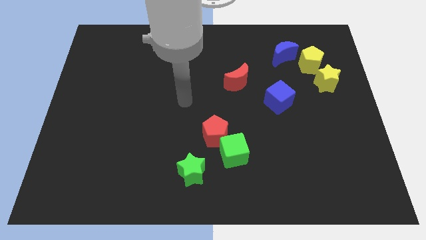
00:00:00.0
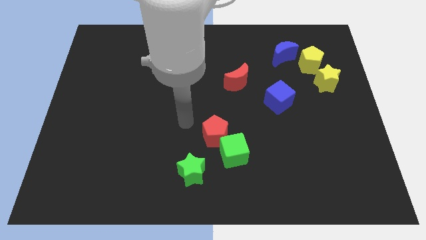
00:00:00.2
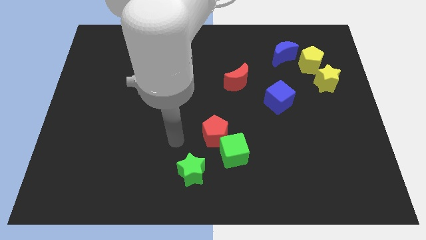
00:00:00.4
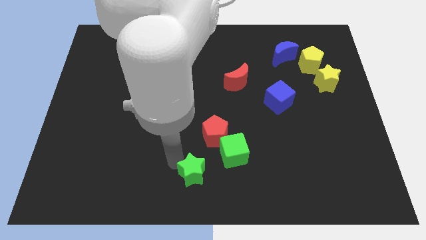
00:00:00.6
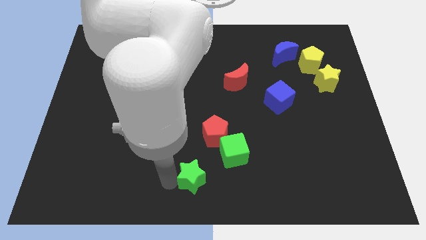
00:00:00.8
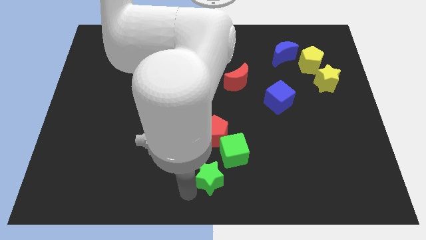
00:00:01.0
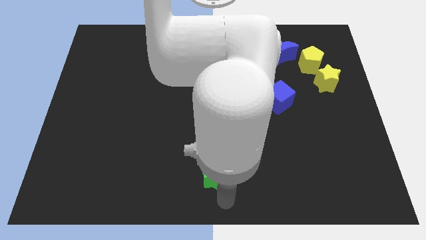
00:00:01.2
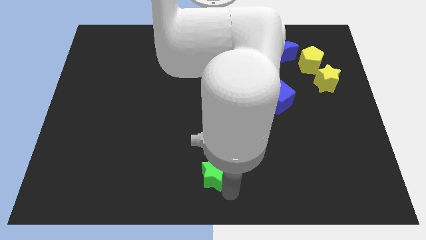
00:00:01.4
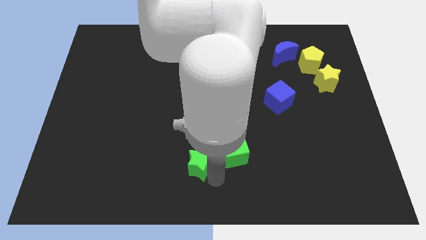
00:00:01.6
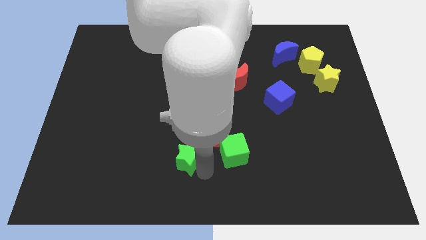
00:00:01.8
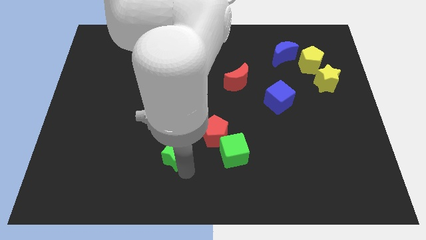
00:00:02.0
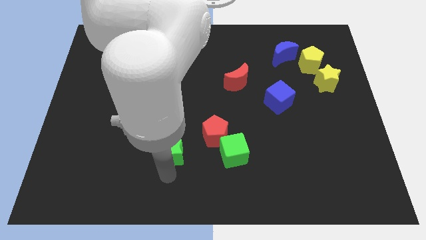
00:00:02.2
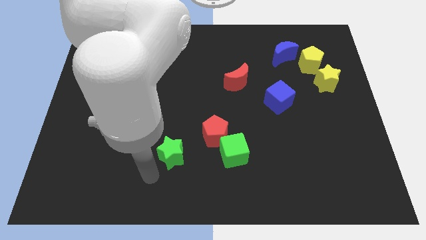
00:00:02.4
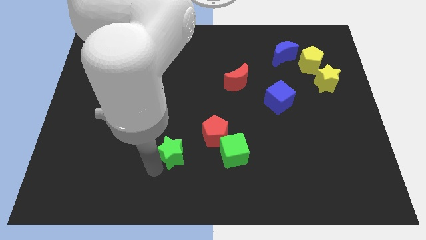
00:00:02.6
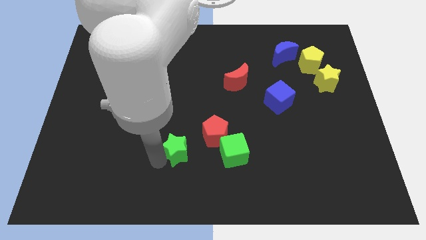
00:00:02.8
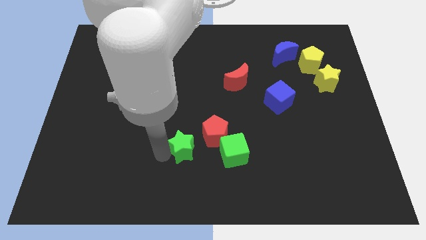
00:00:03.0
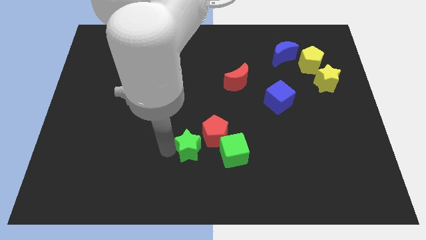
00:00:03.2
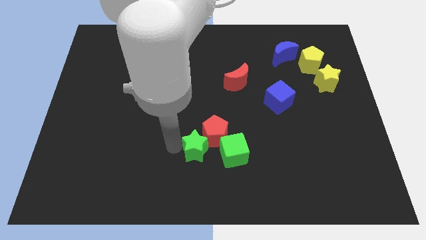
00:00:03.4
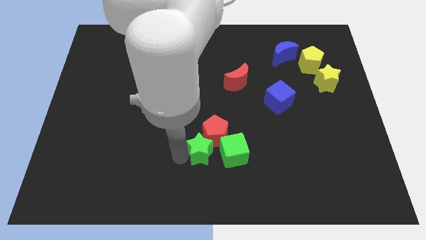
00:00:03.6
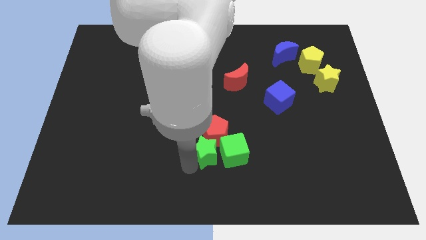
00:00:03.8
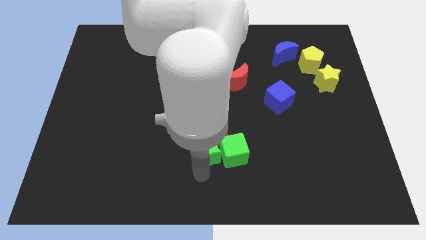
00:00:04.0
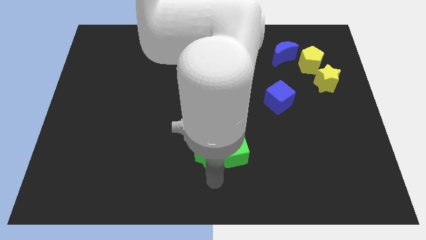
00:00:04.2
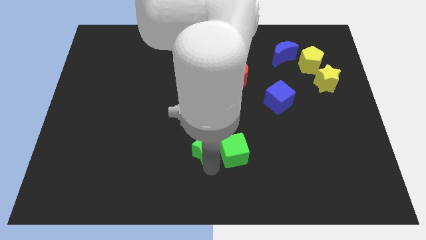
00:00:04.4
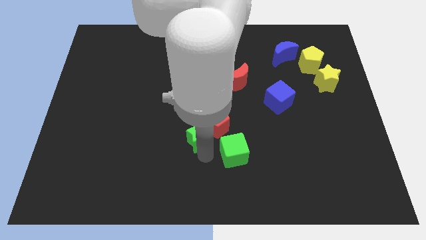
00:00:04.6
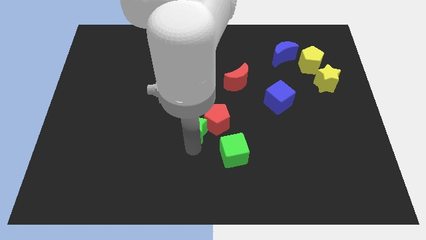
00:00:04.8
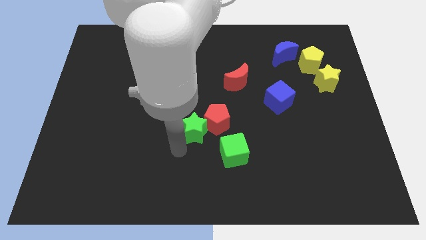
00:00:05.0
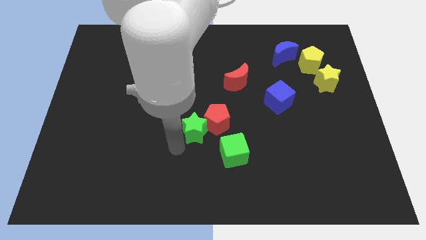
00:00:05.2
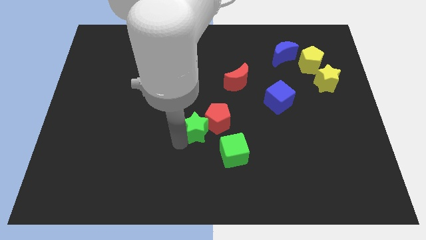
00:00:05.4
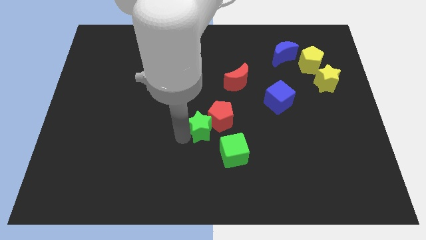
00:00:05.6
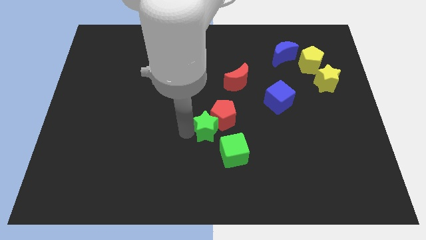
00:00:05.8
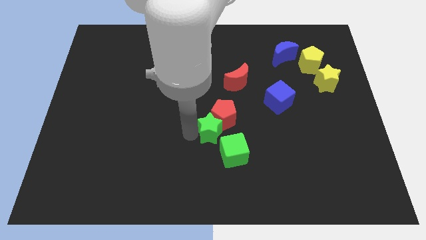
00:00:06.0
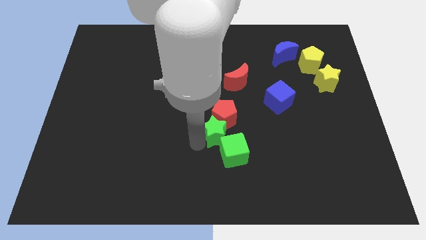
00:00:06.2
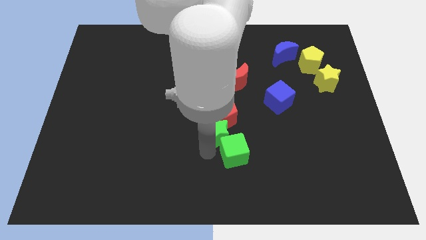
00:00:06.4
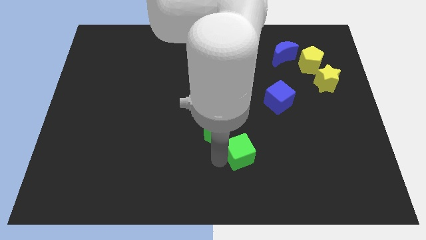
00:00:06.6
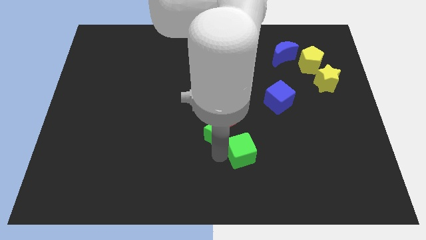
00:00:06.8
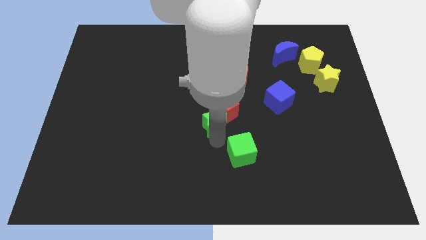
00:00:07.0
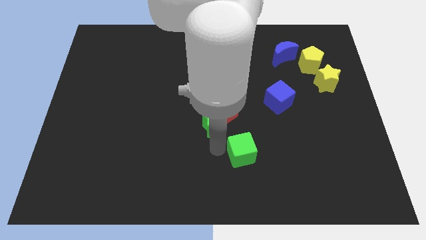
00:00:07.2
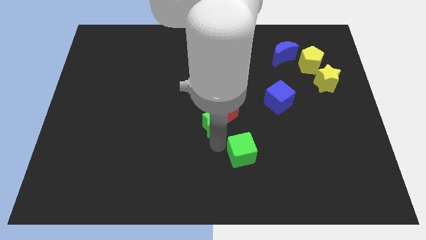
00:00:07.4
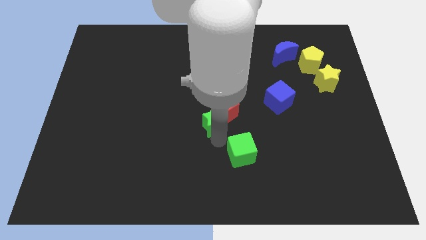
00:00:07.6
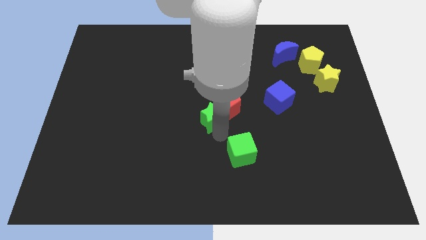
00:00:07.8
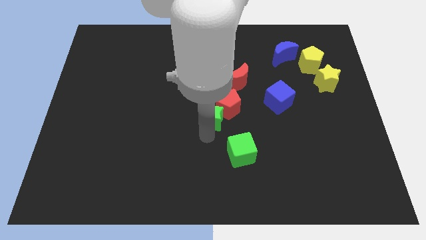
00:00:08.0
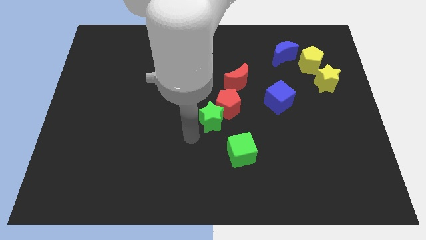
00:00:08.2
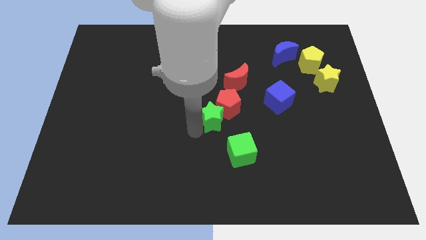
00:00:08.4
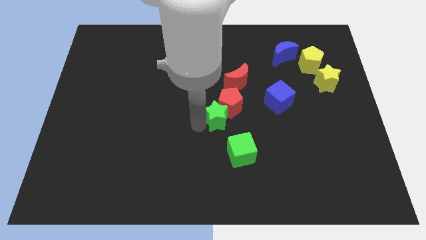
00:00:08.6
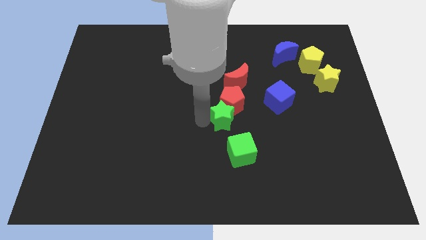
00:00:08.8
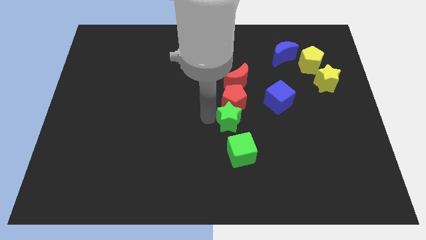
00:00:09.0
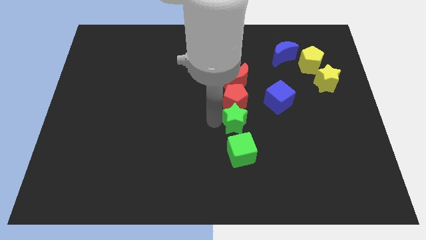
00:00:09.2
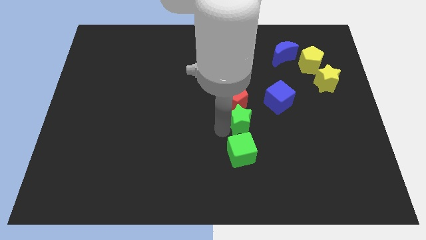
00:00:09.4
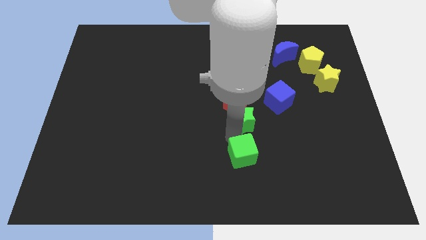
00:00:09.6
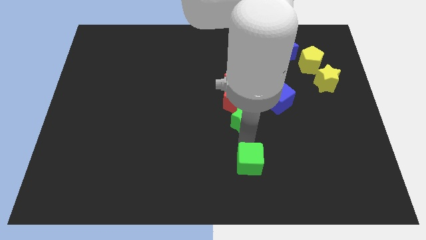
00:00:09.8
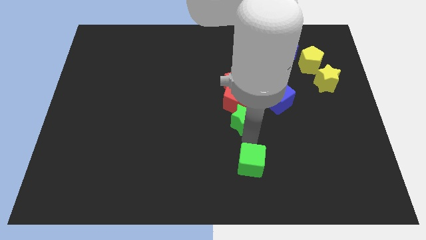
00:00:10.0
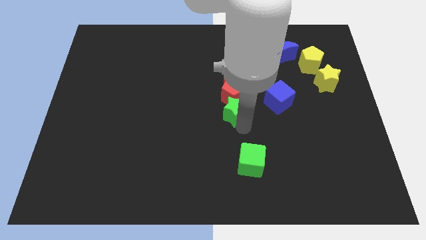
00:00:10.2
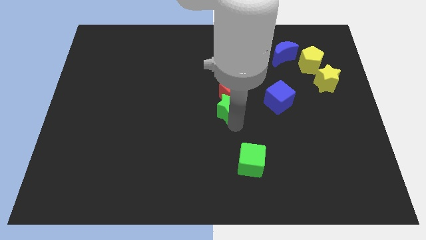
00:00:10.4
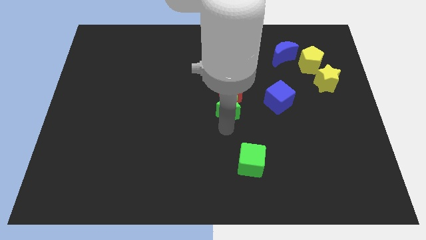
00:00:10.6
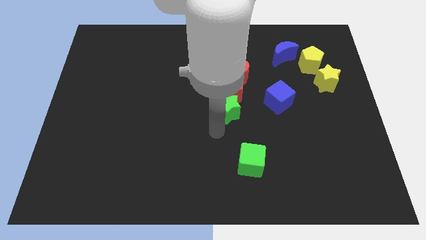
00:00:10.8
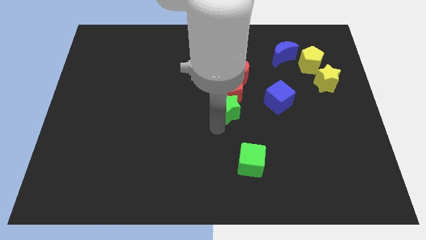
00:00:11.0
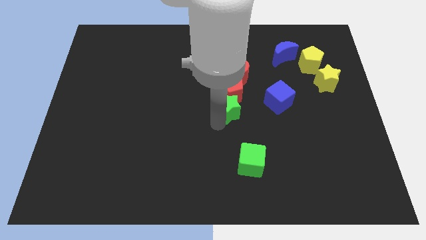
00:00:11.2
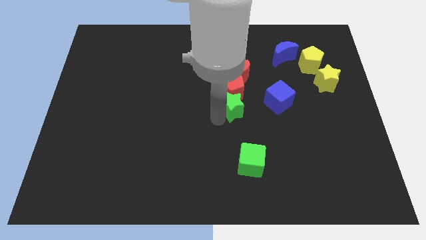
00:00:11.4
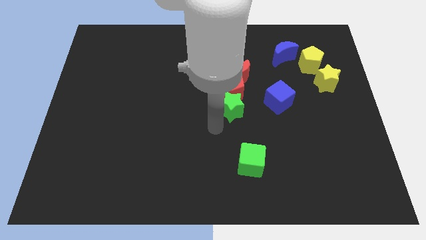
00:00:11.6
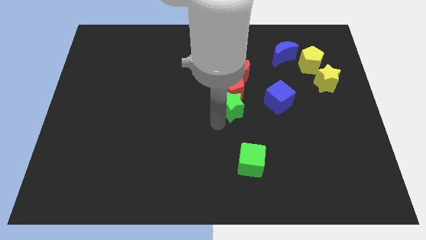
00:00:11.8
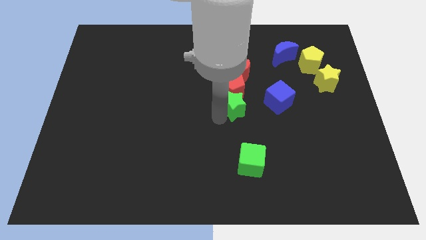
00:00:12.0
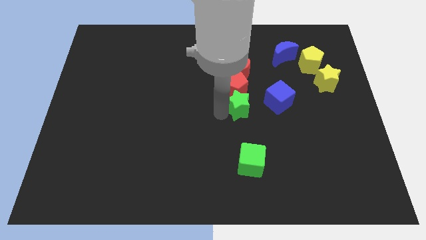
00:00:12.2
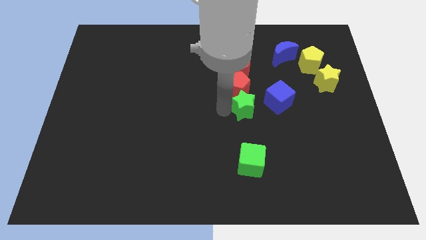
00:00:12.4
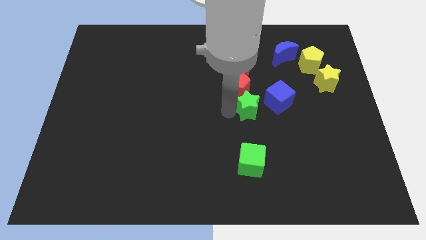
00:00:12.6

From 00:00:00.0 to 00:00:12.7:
slide the green star upwards and right diagonally

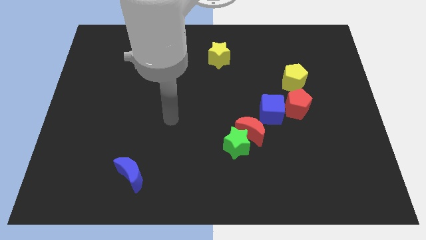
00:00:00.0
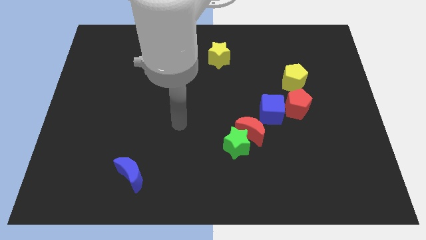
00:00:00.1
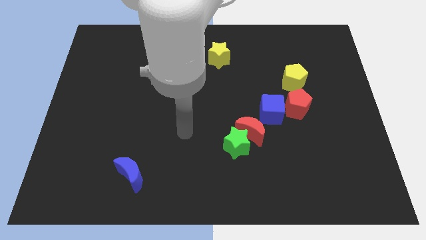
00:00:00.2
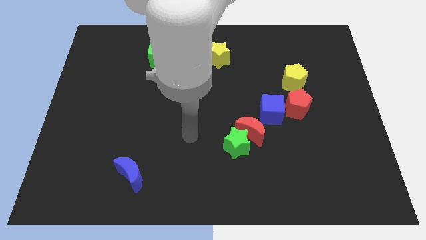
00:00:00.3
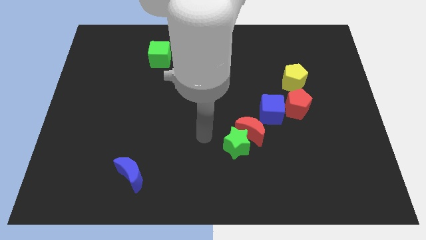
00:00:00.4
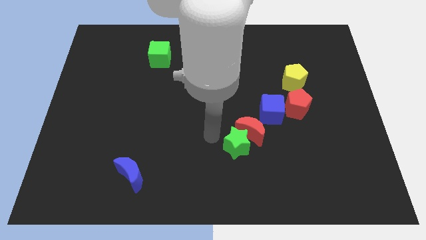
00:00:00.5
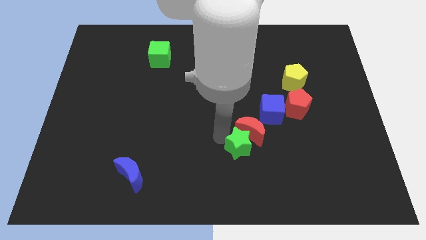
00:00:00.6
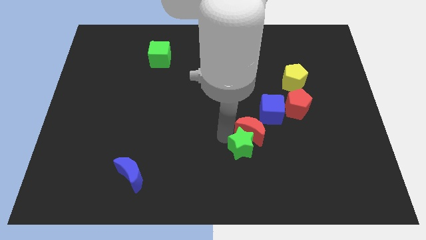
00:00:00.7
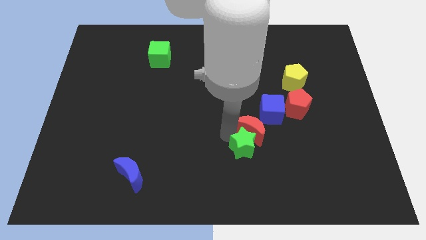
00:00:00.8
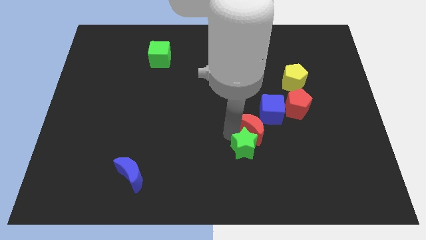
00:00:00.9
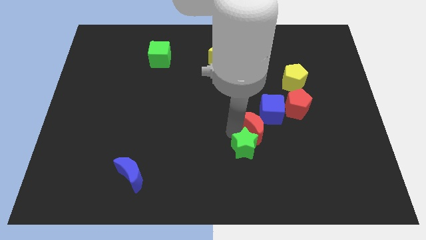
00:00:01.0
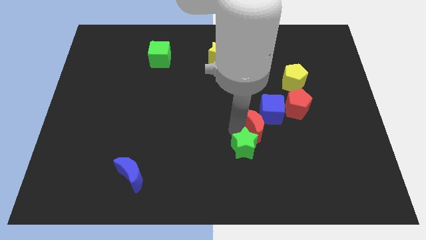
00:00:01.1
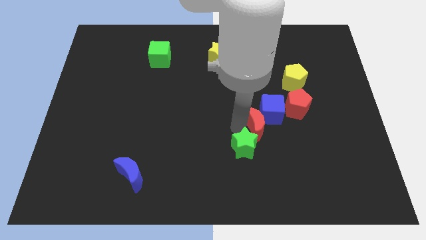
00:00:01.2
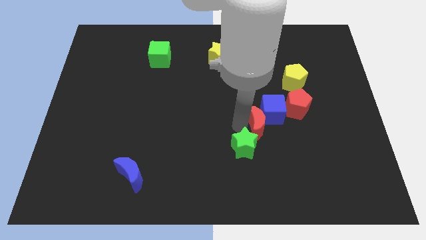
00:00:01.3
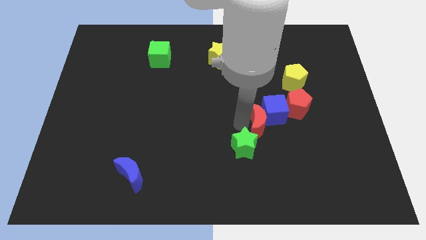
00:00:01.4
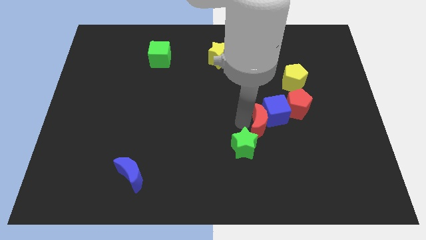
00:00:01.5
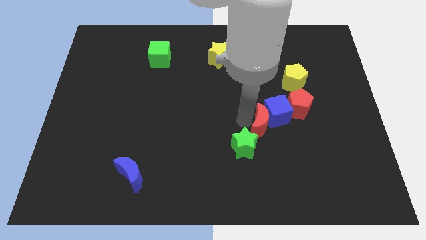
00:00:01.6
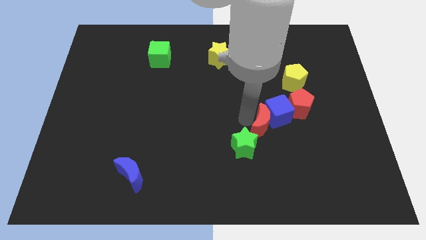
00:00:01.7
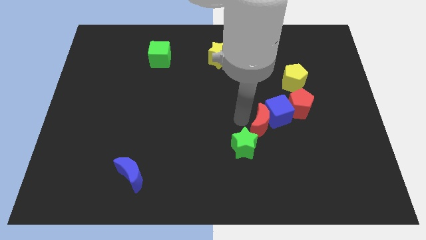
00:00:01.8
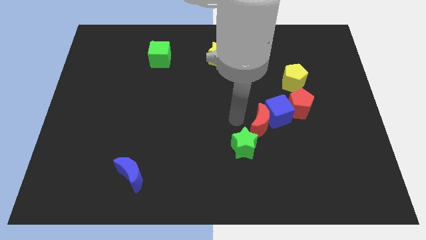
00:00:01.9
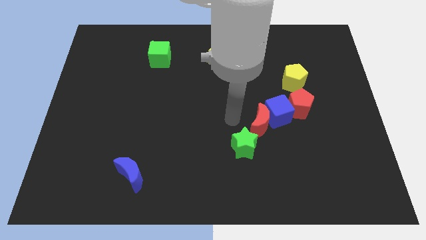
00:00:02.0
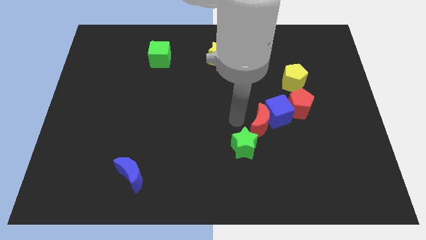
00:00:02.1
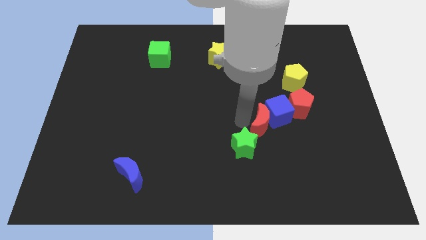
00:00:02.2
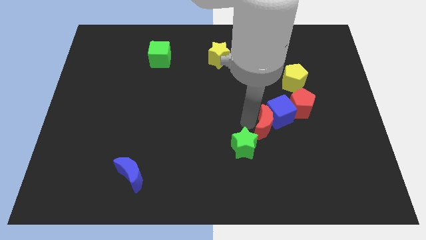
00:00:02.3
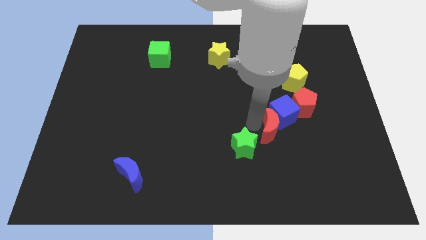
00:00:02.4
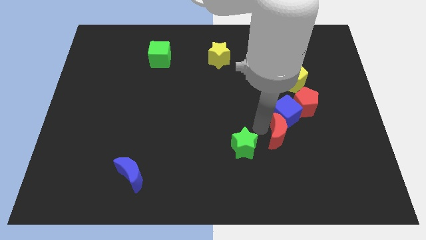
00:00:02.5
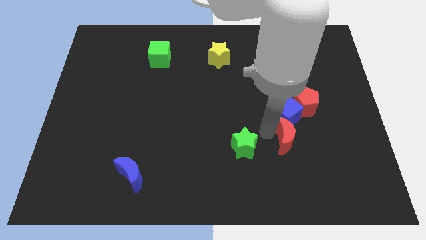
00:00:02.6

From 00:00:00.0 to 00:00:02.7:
slide the red moon somewhat right
